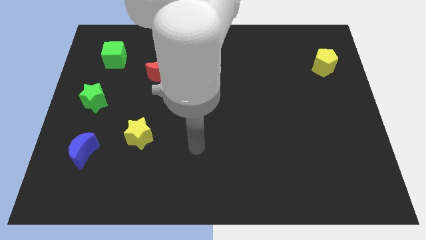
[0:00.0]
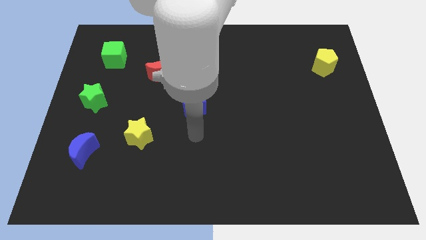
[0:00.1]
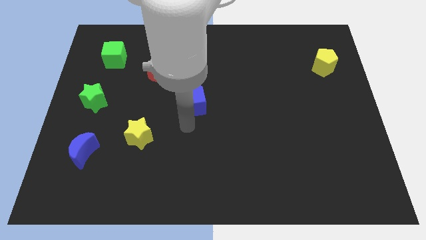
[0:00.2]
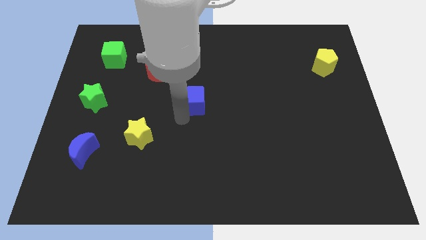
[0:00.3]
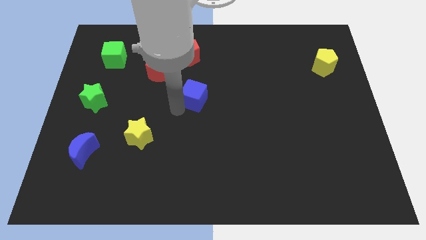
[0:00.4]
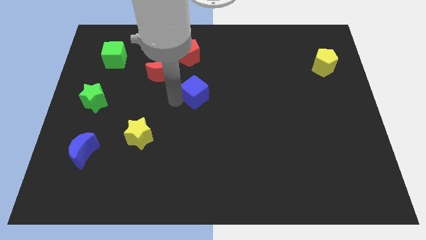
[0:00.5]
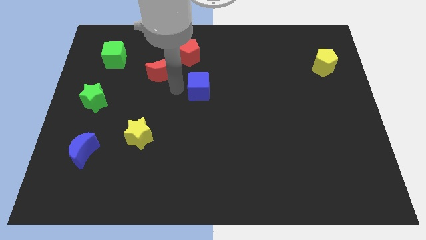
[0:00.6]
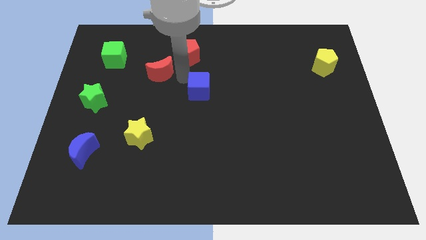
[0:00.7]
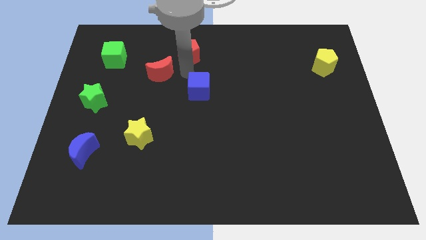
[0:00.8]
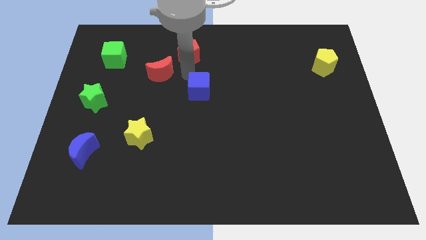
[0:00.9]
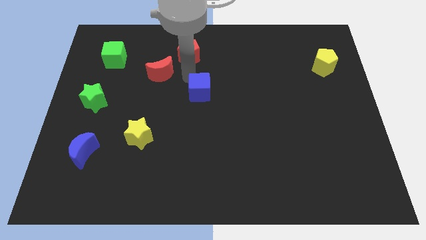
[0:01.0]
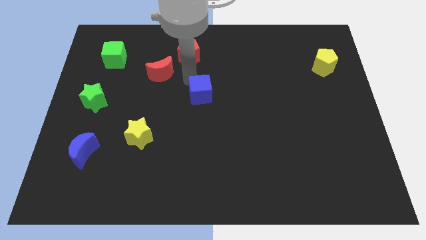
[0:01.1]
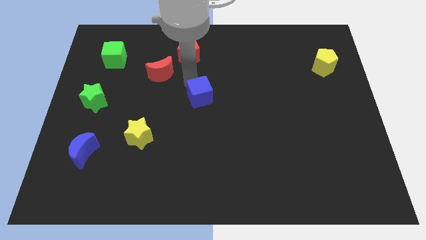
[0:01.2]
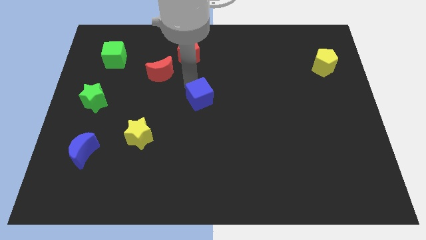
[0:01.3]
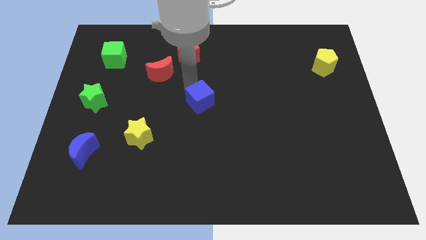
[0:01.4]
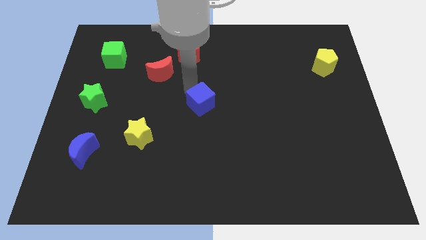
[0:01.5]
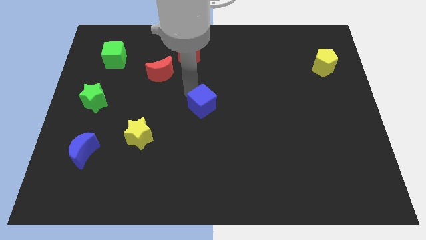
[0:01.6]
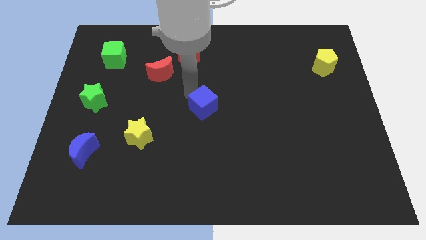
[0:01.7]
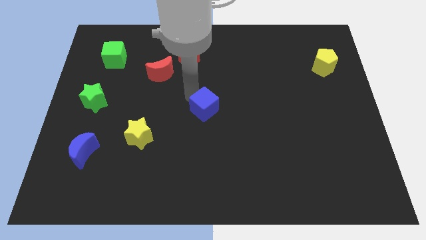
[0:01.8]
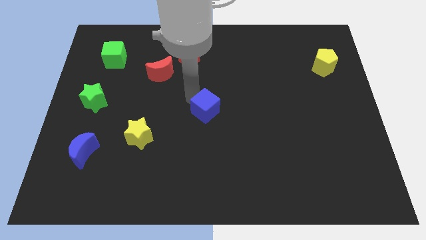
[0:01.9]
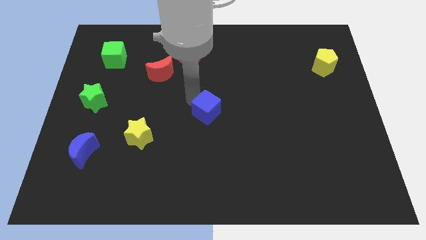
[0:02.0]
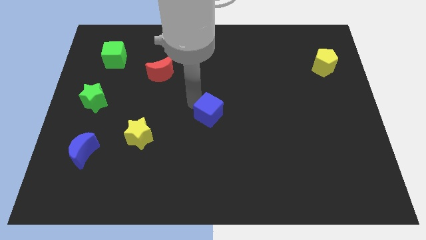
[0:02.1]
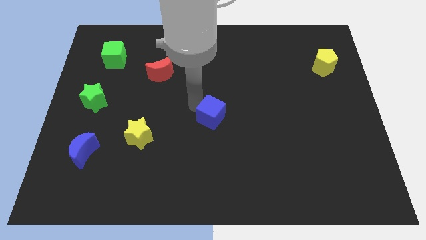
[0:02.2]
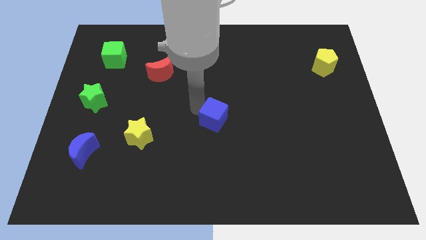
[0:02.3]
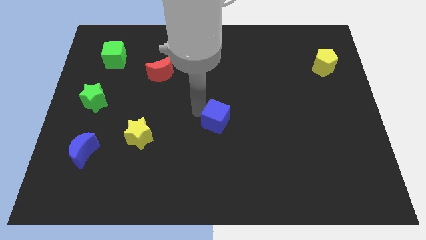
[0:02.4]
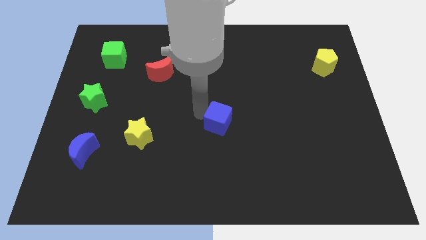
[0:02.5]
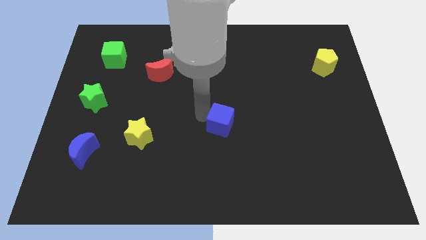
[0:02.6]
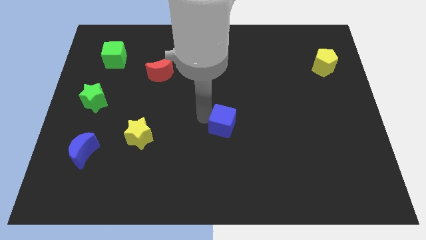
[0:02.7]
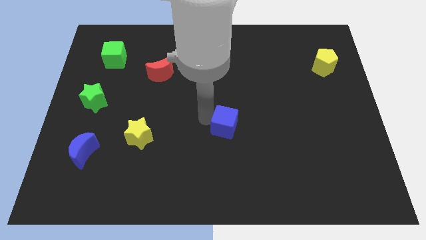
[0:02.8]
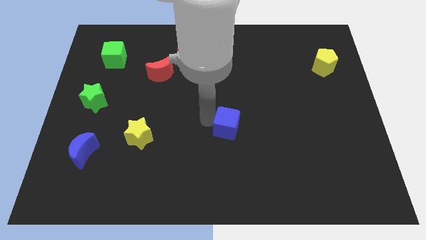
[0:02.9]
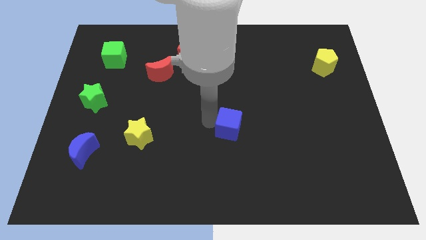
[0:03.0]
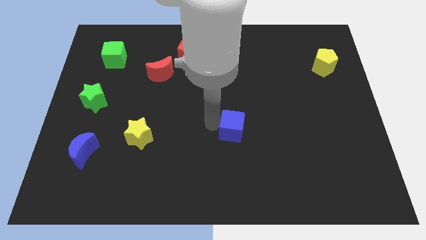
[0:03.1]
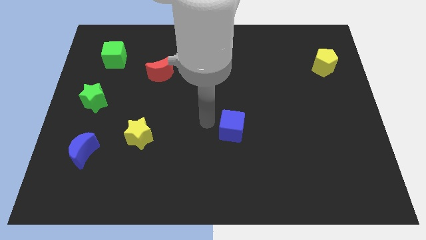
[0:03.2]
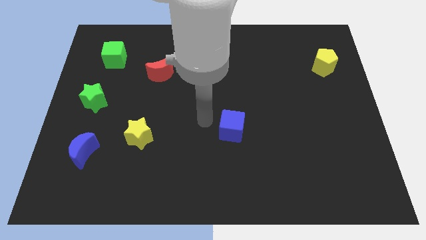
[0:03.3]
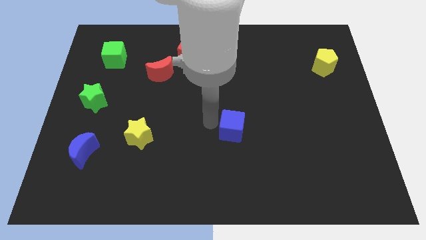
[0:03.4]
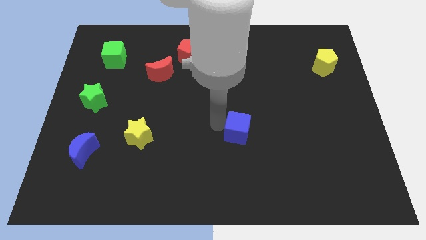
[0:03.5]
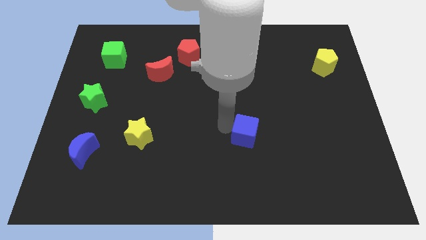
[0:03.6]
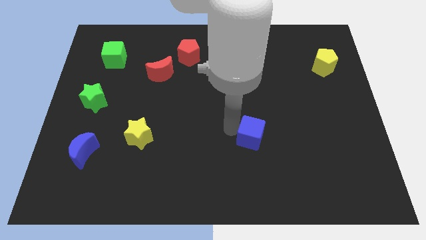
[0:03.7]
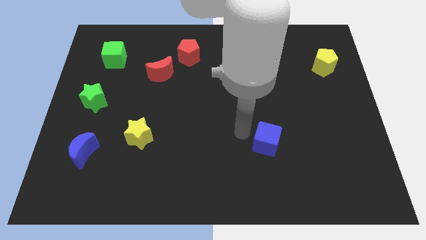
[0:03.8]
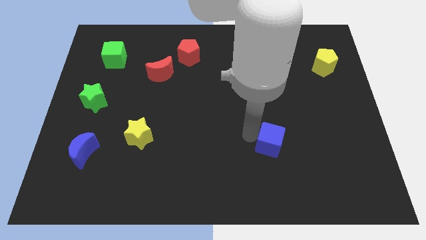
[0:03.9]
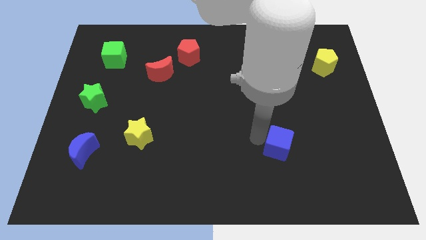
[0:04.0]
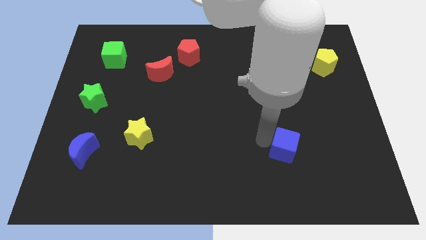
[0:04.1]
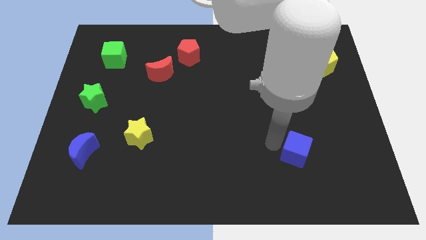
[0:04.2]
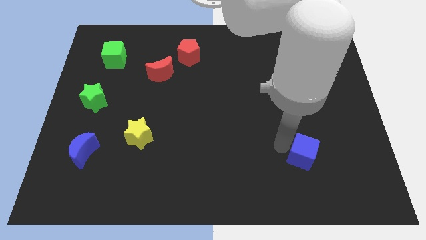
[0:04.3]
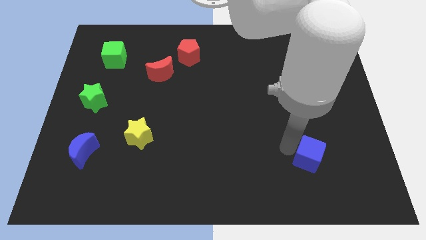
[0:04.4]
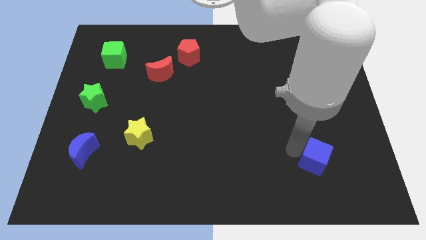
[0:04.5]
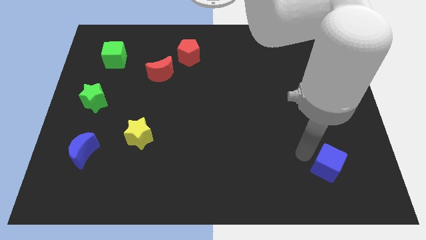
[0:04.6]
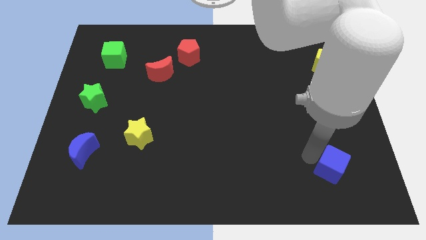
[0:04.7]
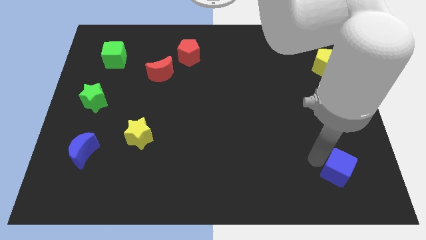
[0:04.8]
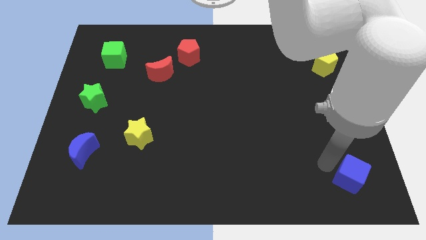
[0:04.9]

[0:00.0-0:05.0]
push the blue cube to the bottom right of the board

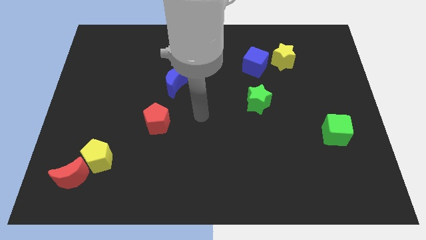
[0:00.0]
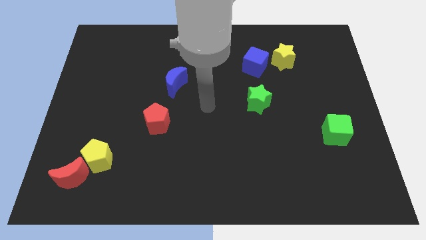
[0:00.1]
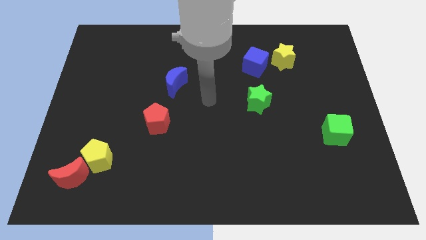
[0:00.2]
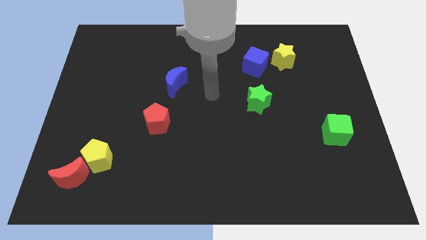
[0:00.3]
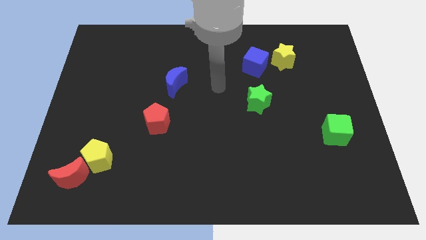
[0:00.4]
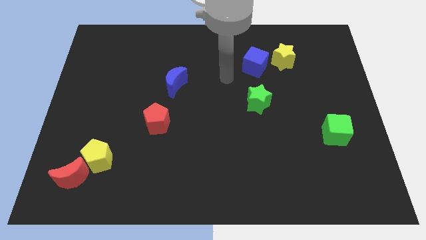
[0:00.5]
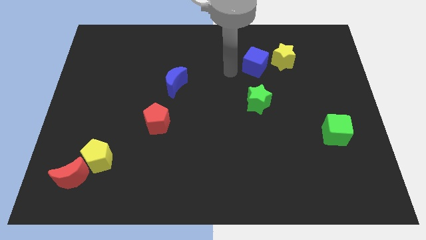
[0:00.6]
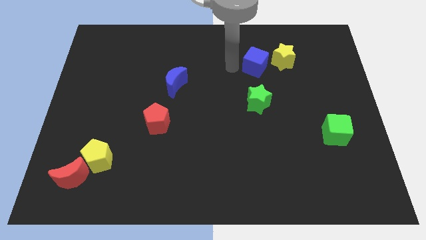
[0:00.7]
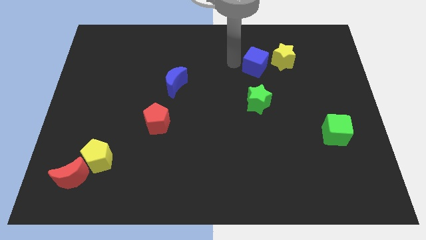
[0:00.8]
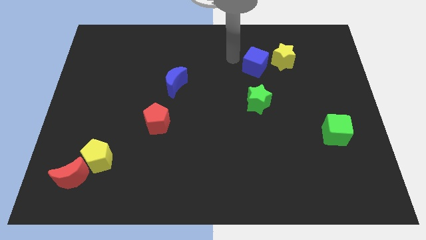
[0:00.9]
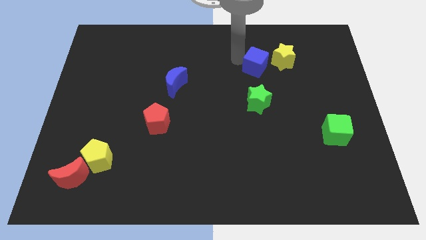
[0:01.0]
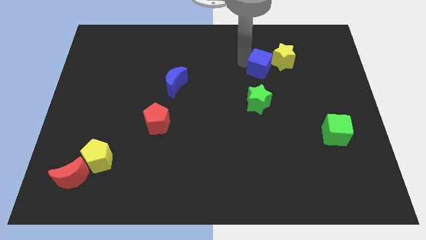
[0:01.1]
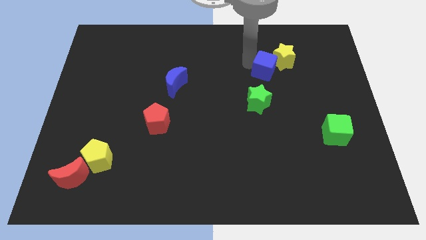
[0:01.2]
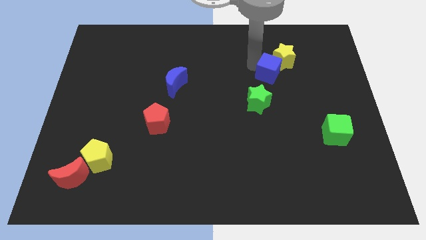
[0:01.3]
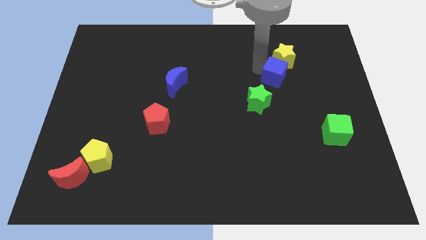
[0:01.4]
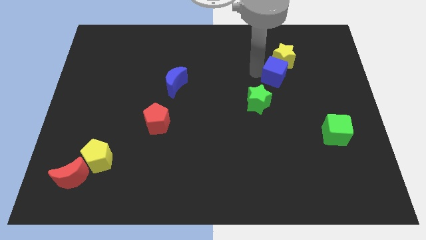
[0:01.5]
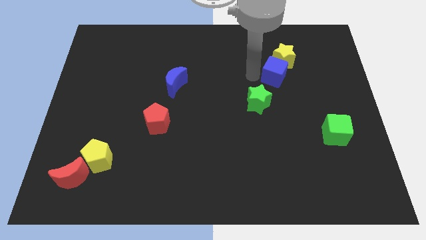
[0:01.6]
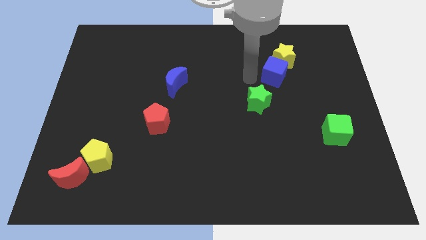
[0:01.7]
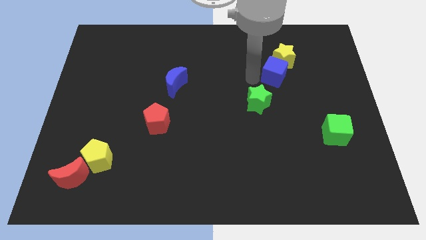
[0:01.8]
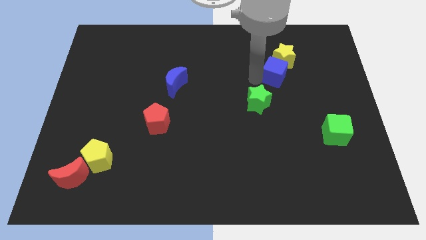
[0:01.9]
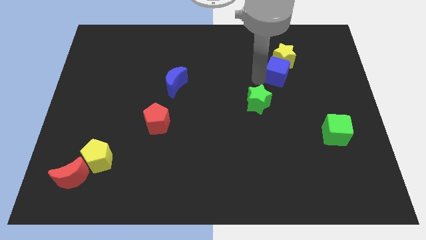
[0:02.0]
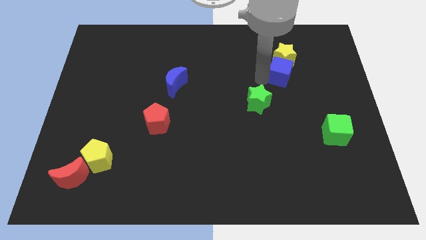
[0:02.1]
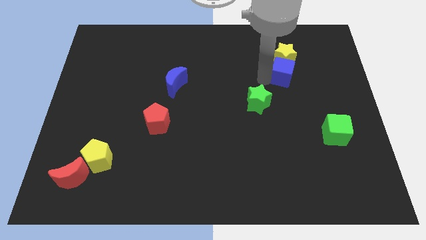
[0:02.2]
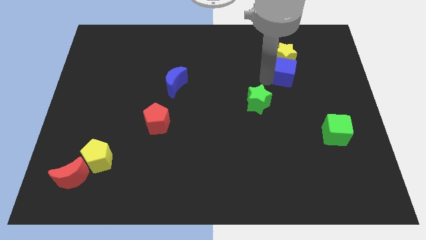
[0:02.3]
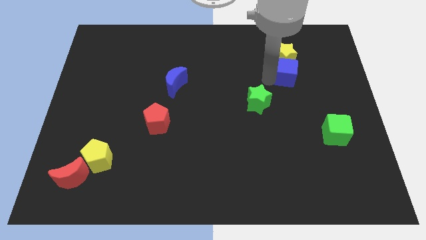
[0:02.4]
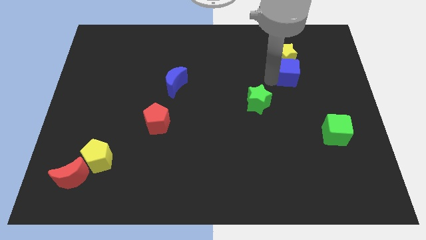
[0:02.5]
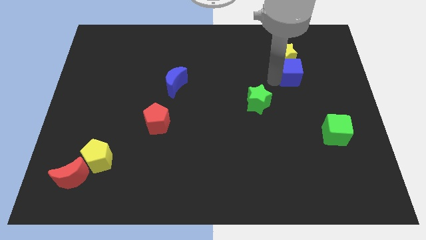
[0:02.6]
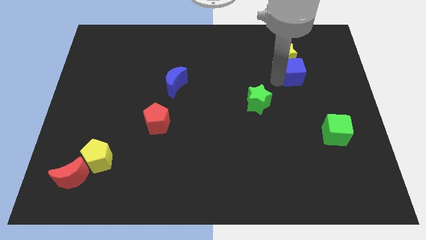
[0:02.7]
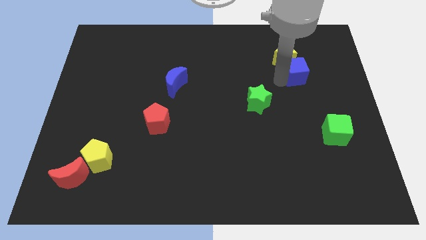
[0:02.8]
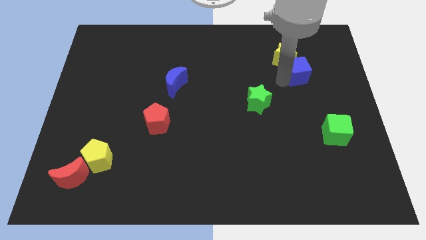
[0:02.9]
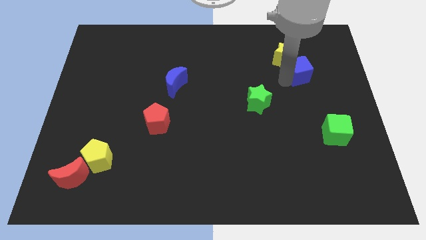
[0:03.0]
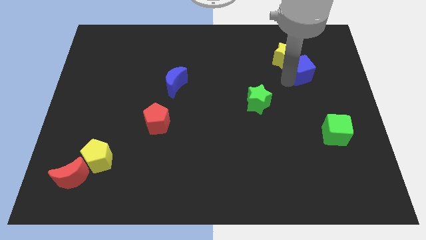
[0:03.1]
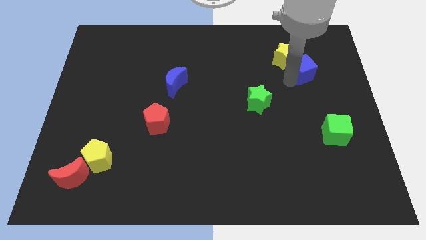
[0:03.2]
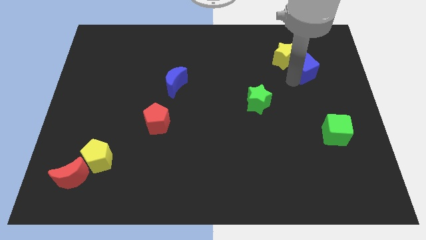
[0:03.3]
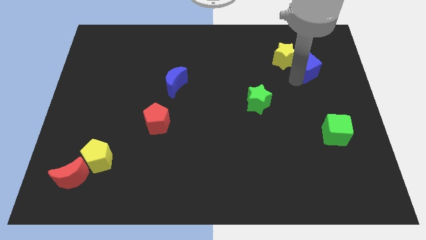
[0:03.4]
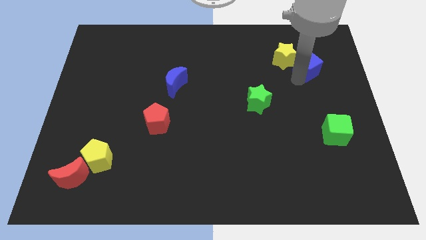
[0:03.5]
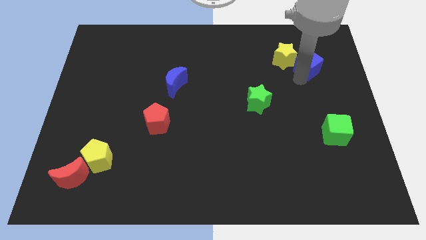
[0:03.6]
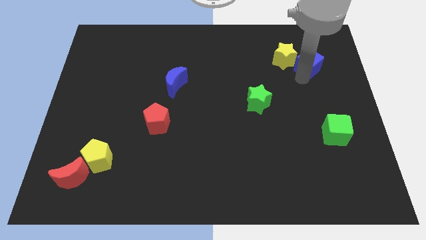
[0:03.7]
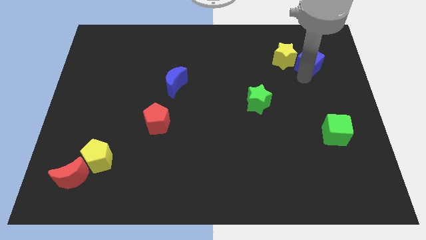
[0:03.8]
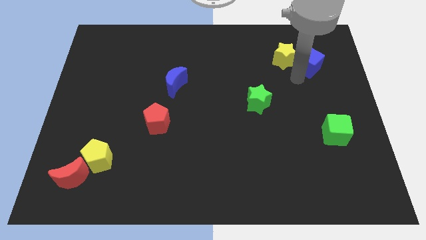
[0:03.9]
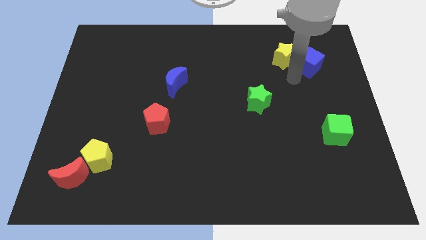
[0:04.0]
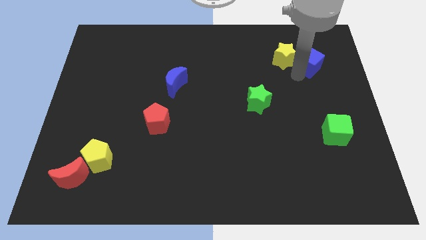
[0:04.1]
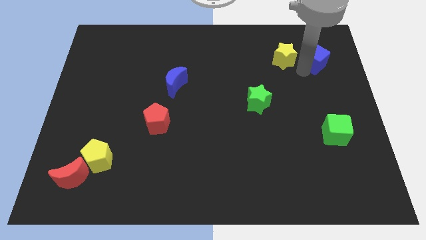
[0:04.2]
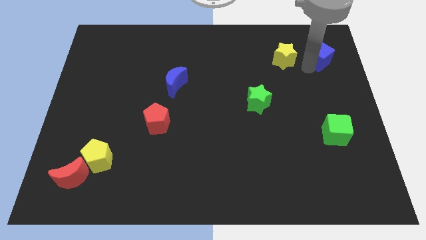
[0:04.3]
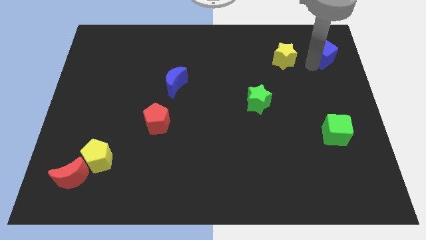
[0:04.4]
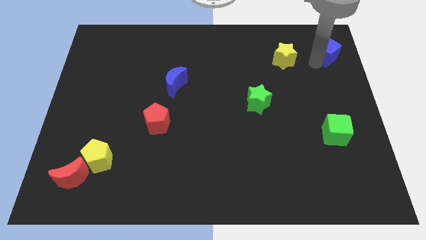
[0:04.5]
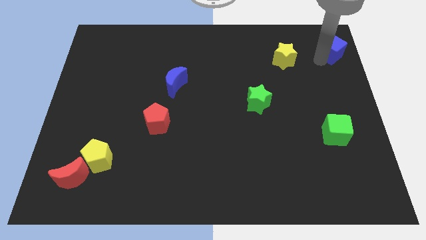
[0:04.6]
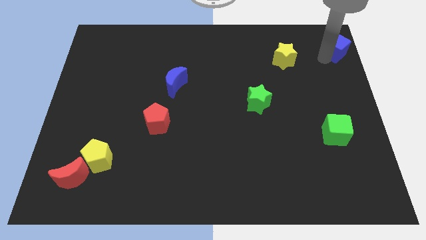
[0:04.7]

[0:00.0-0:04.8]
push the blue cube to the upper right corner
